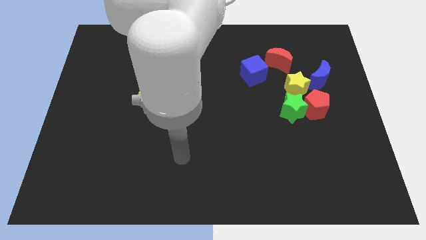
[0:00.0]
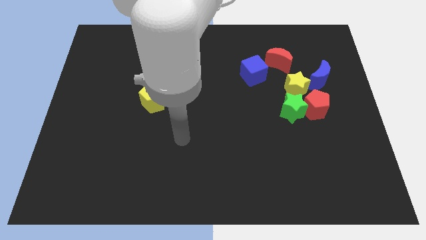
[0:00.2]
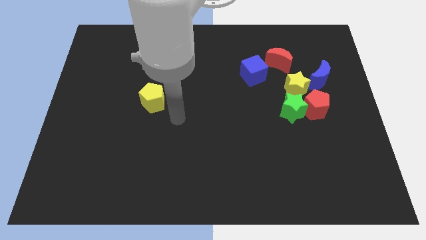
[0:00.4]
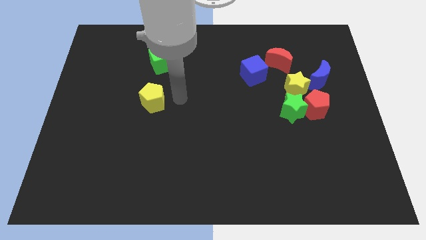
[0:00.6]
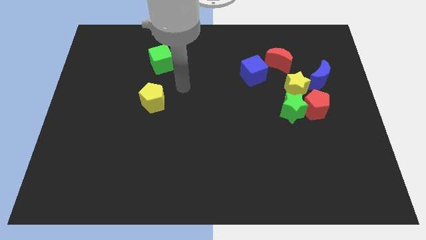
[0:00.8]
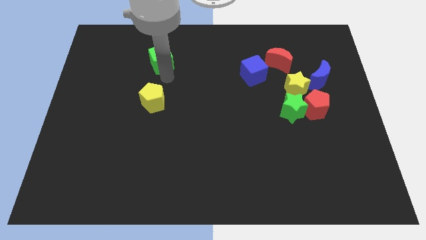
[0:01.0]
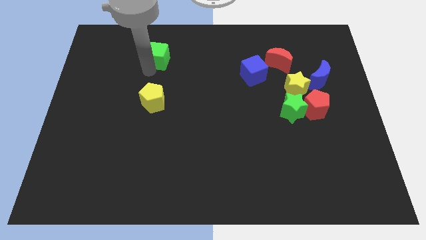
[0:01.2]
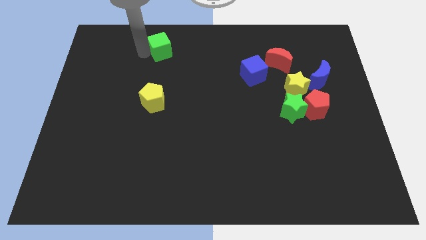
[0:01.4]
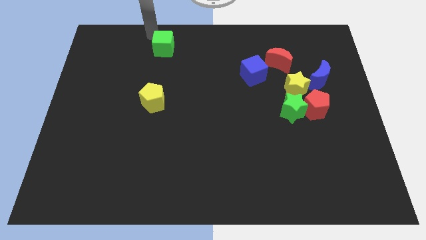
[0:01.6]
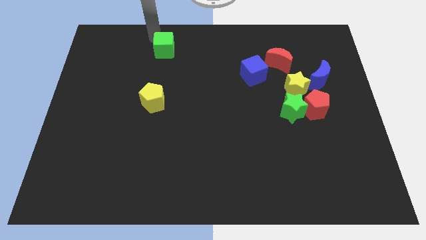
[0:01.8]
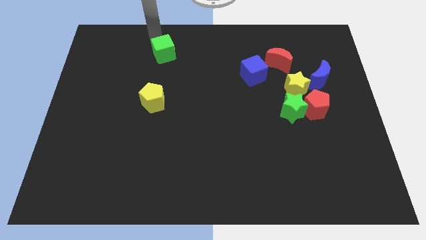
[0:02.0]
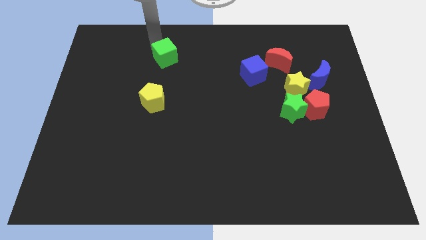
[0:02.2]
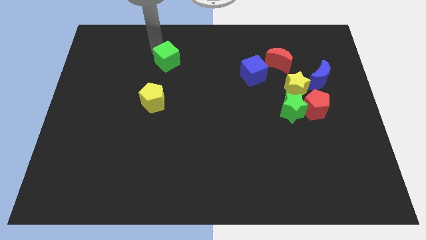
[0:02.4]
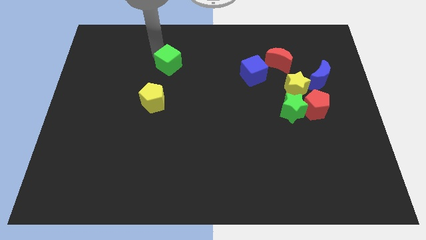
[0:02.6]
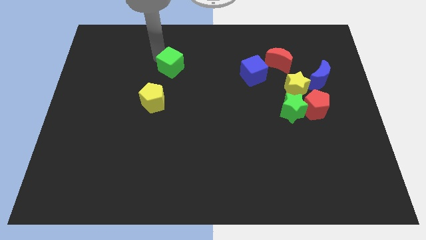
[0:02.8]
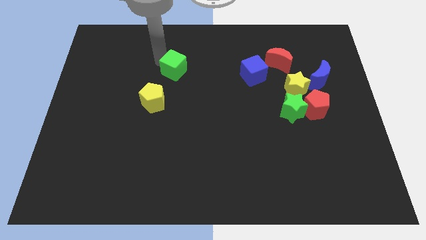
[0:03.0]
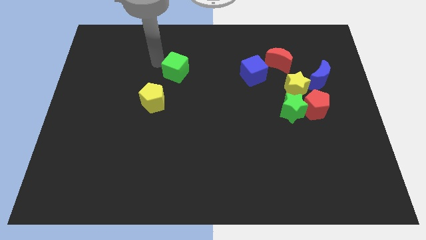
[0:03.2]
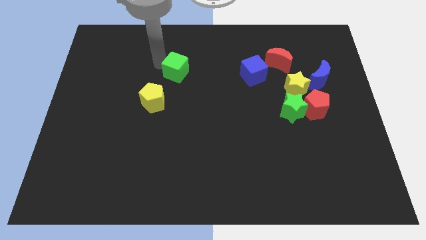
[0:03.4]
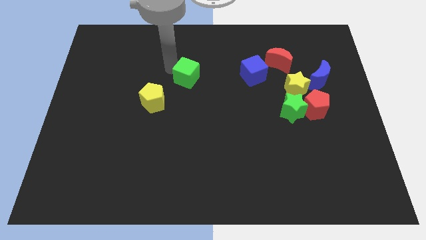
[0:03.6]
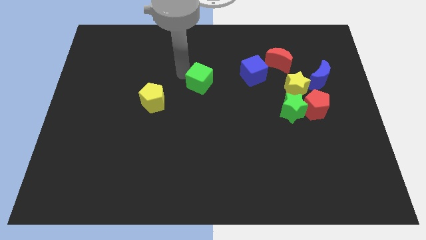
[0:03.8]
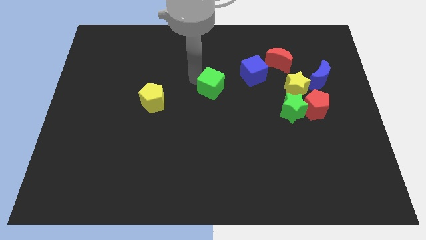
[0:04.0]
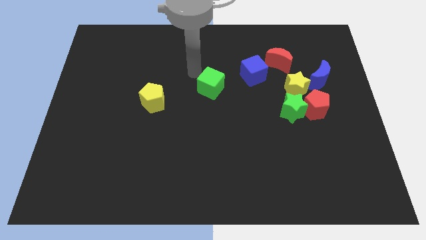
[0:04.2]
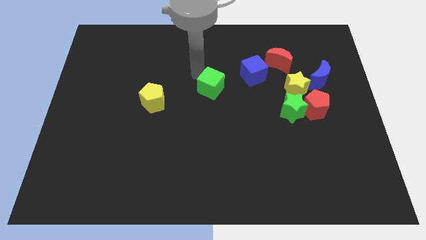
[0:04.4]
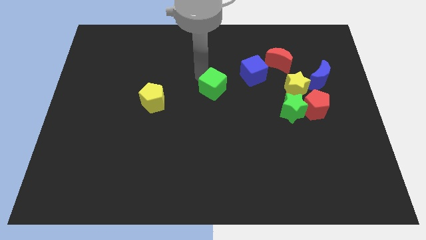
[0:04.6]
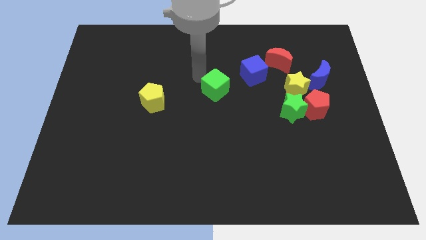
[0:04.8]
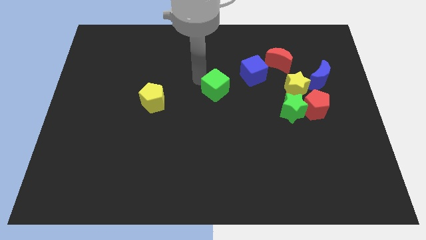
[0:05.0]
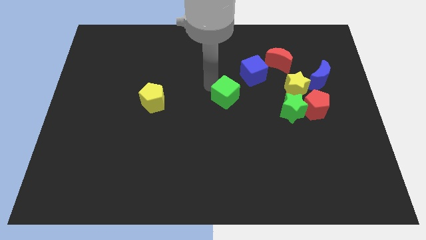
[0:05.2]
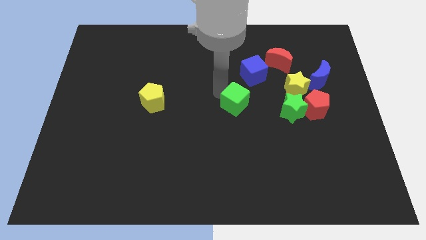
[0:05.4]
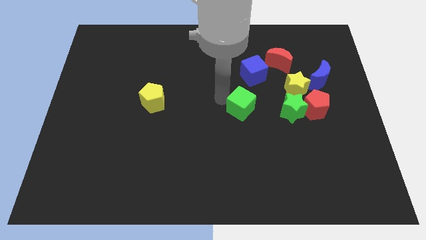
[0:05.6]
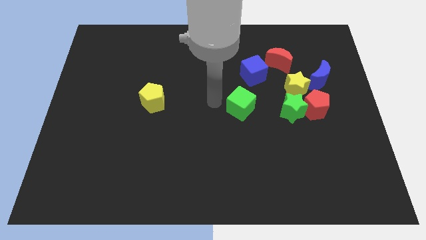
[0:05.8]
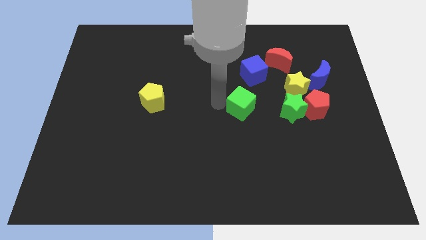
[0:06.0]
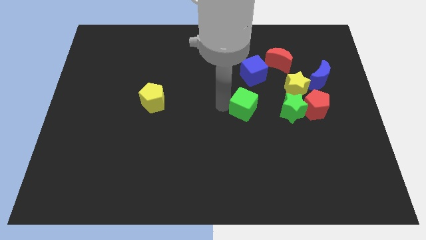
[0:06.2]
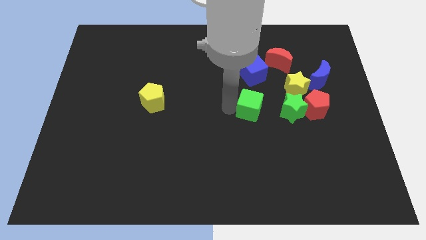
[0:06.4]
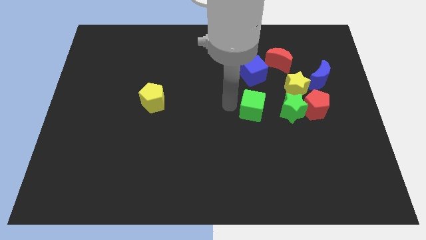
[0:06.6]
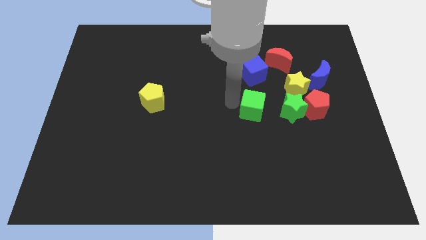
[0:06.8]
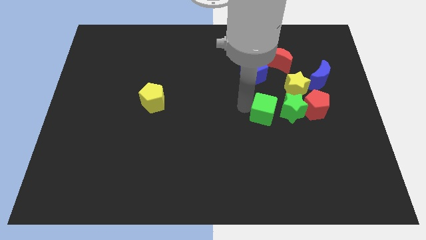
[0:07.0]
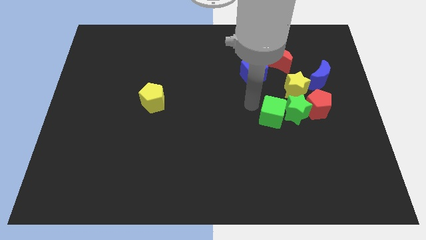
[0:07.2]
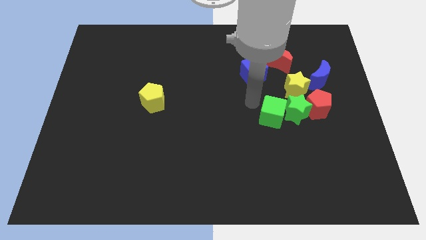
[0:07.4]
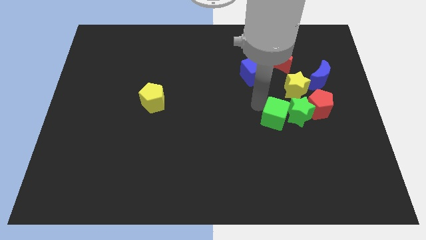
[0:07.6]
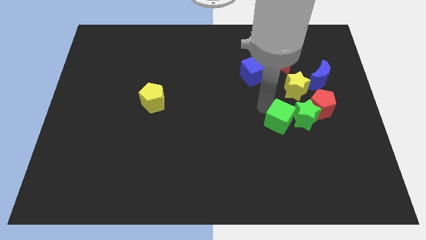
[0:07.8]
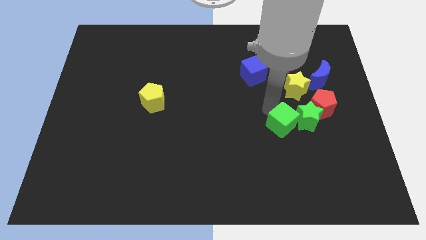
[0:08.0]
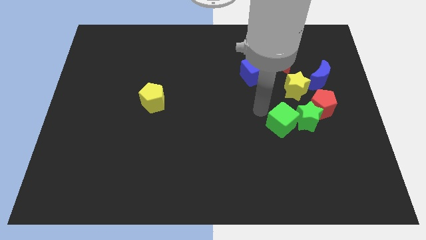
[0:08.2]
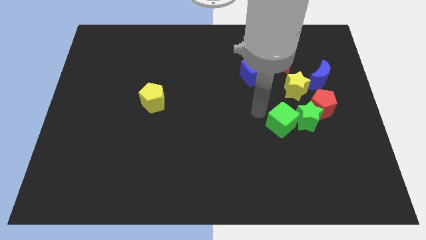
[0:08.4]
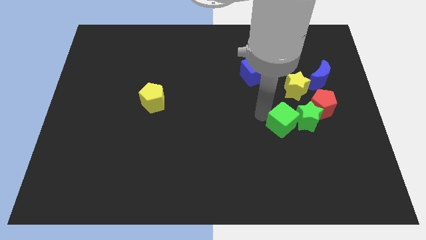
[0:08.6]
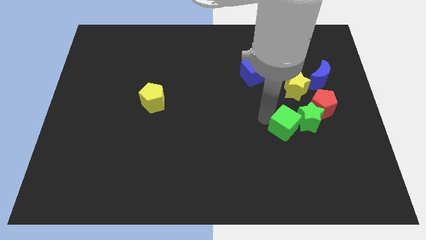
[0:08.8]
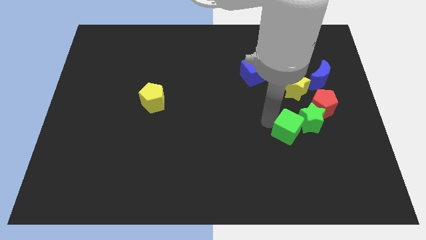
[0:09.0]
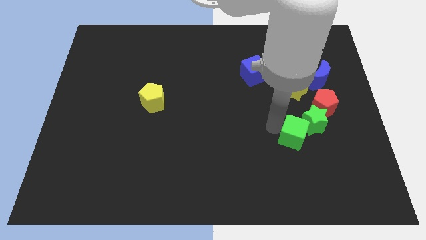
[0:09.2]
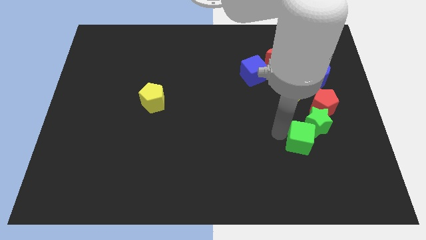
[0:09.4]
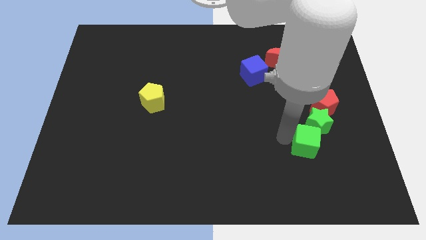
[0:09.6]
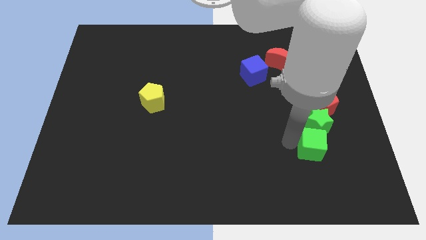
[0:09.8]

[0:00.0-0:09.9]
slide the green cube to the bottom of the red pentagon

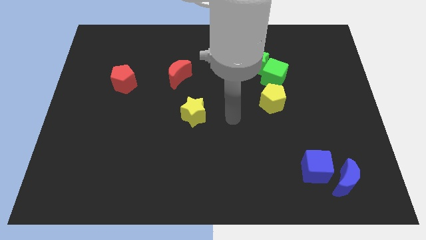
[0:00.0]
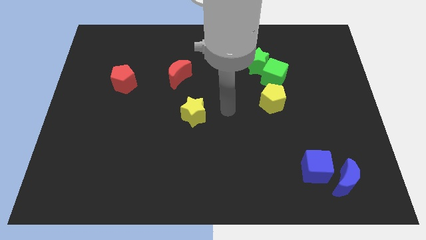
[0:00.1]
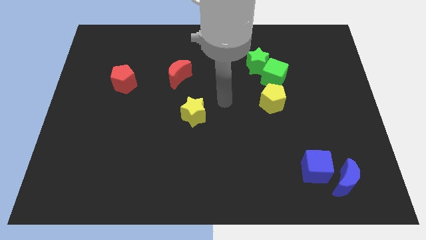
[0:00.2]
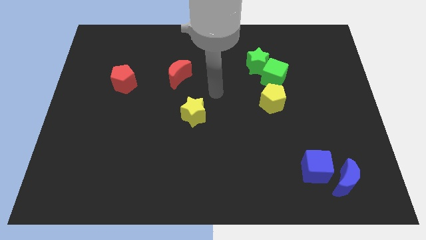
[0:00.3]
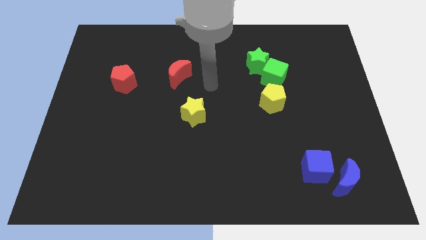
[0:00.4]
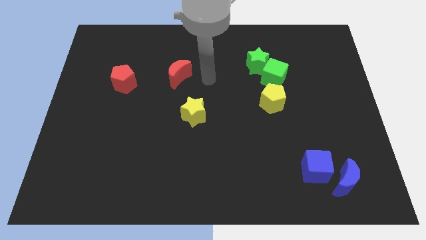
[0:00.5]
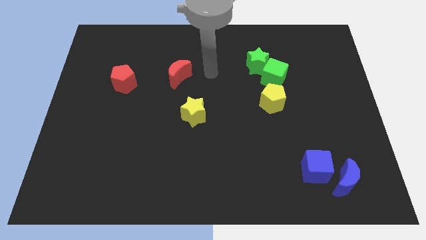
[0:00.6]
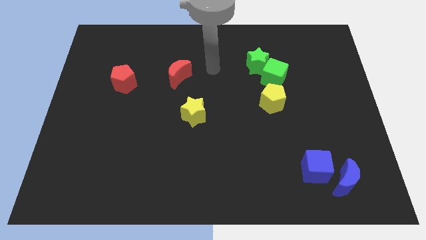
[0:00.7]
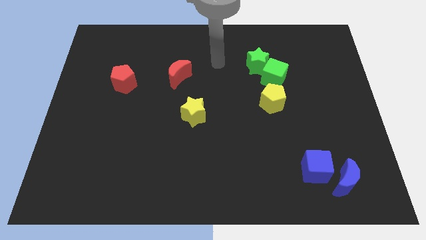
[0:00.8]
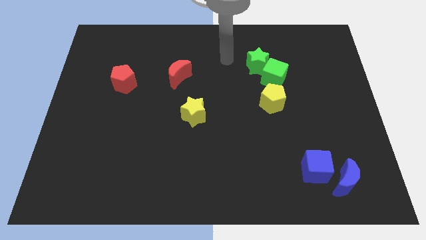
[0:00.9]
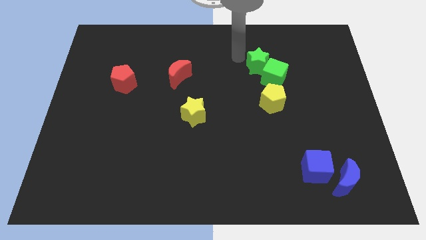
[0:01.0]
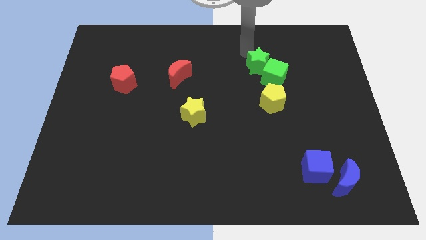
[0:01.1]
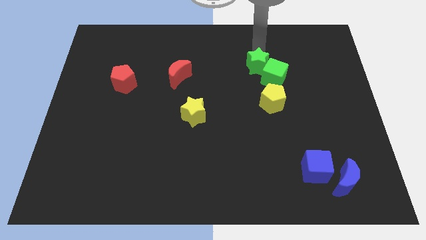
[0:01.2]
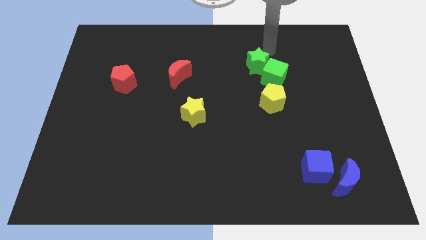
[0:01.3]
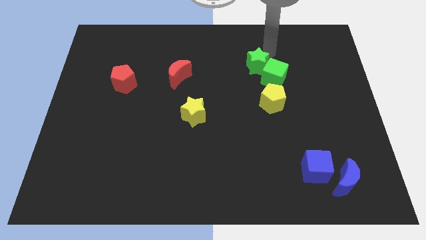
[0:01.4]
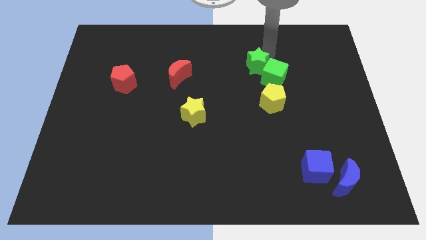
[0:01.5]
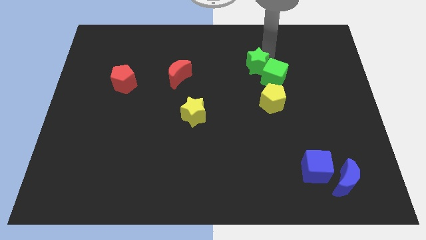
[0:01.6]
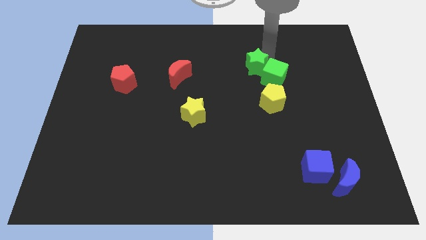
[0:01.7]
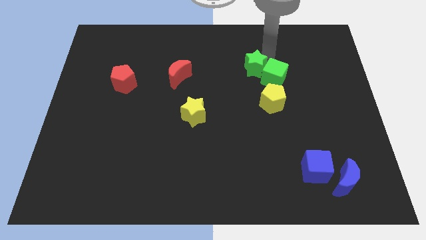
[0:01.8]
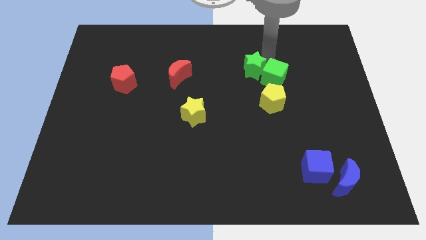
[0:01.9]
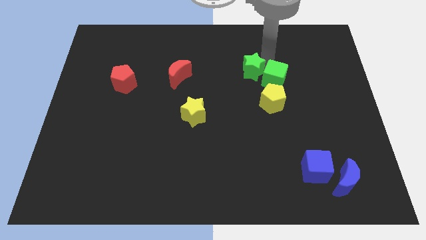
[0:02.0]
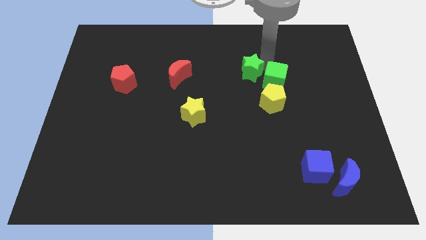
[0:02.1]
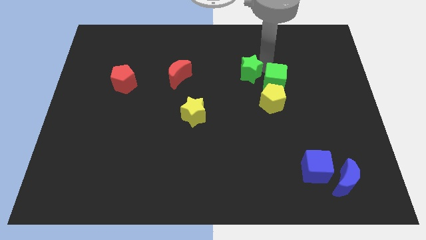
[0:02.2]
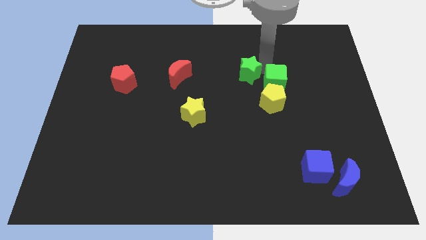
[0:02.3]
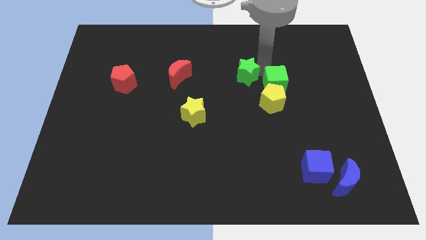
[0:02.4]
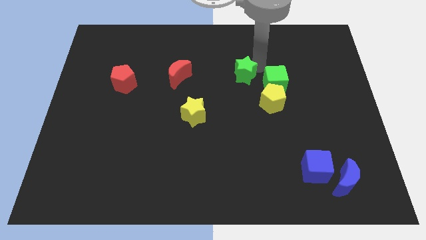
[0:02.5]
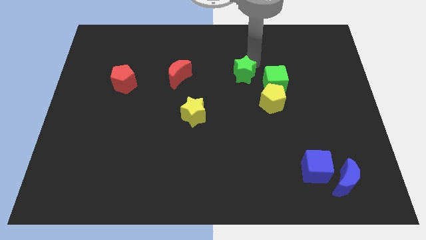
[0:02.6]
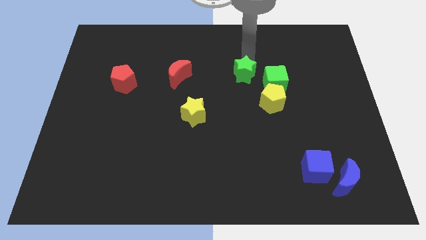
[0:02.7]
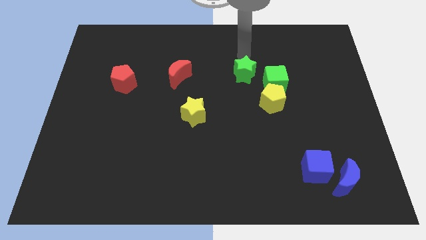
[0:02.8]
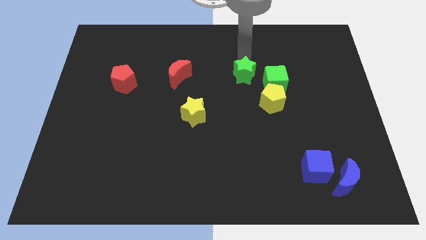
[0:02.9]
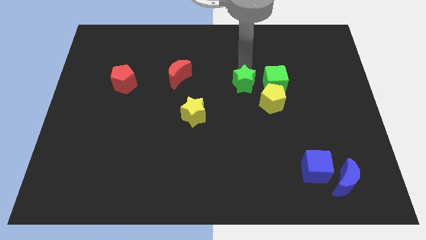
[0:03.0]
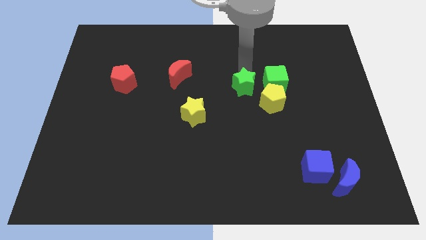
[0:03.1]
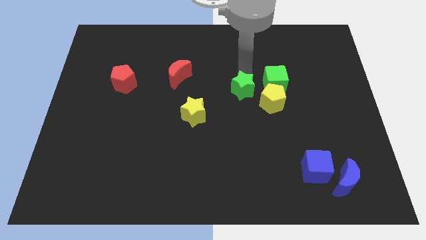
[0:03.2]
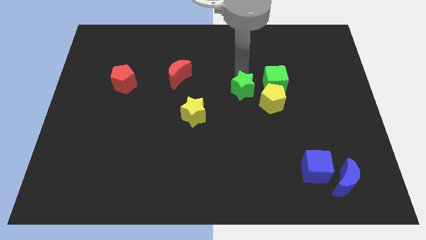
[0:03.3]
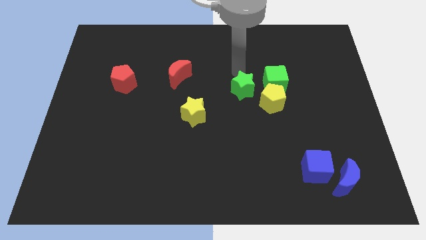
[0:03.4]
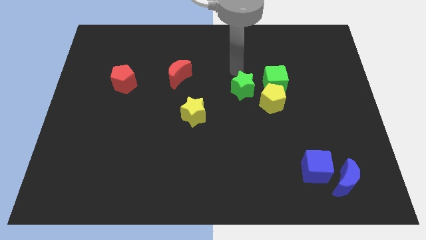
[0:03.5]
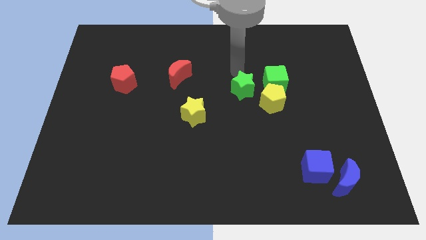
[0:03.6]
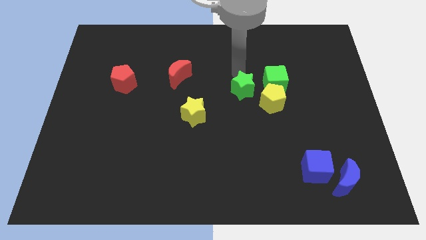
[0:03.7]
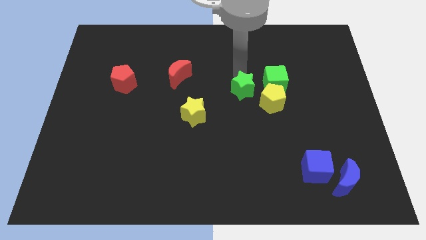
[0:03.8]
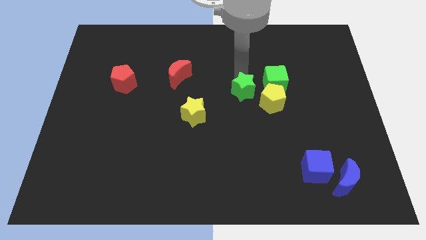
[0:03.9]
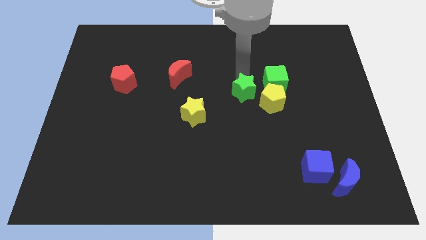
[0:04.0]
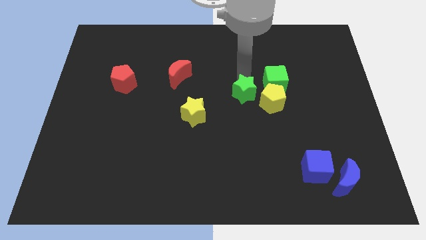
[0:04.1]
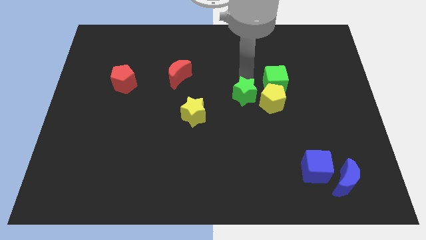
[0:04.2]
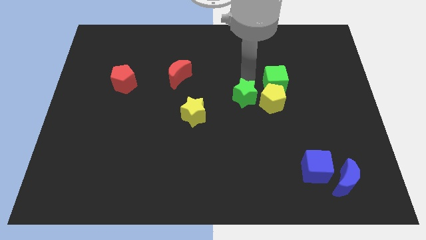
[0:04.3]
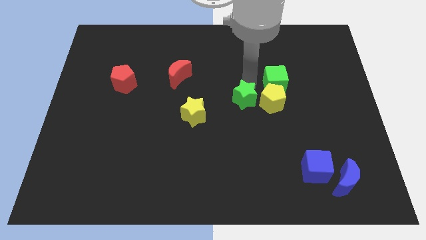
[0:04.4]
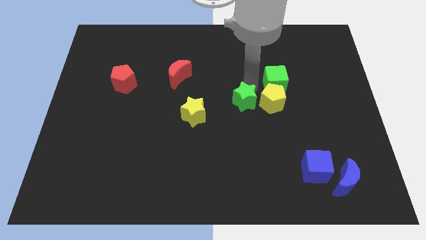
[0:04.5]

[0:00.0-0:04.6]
push the green star diagonally down and to the left of the yellow pentagon
